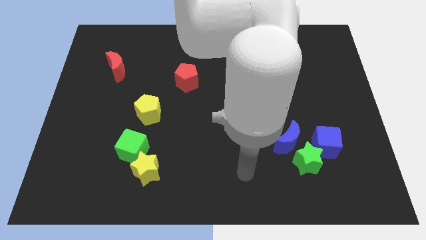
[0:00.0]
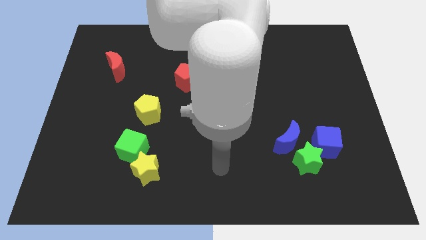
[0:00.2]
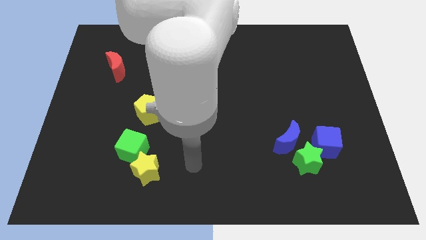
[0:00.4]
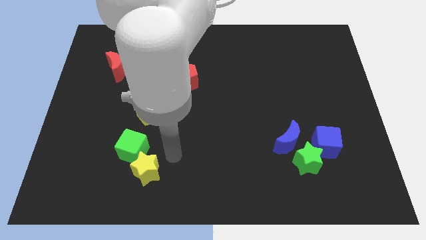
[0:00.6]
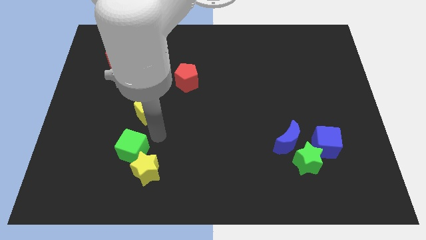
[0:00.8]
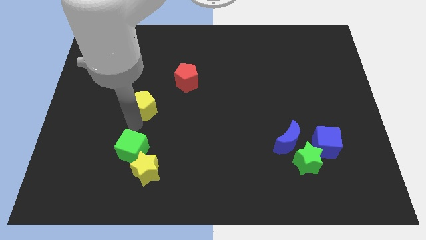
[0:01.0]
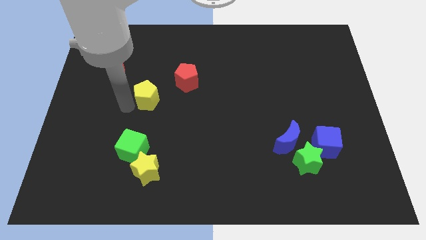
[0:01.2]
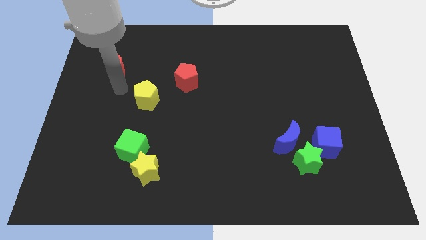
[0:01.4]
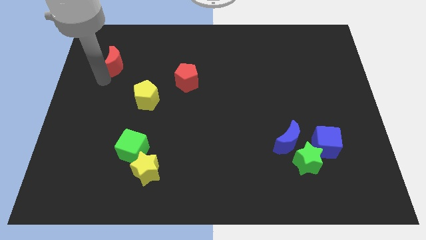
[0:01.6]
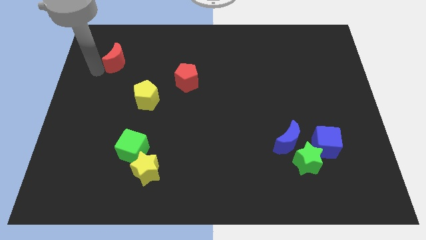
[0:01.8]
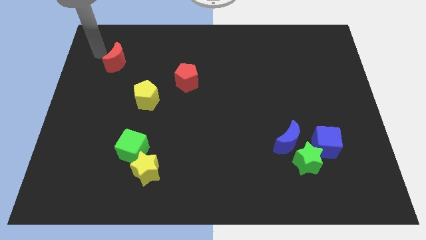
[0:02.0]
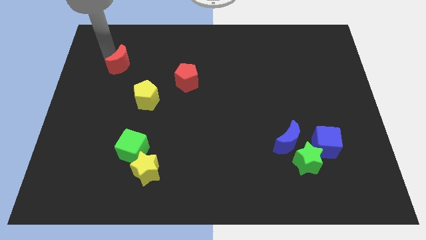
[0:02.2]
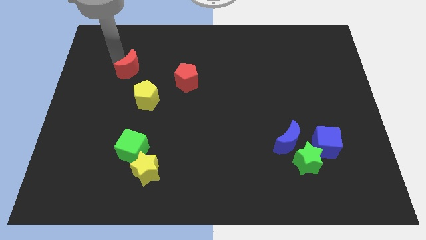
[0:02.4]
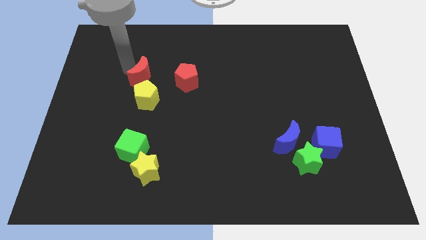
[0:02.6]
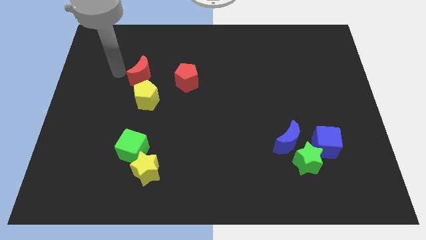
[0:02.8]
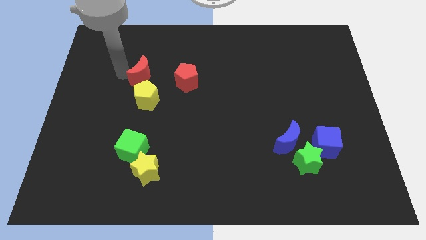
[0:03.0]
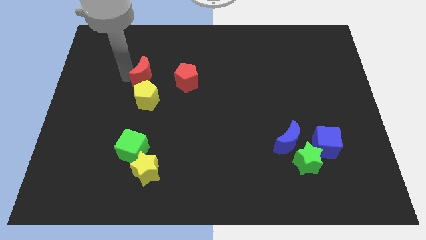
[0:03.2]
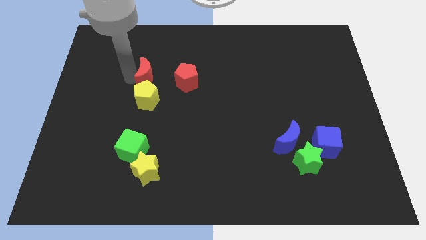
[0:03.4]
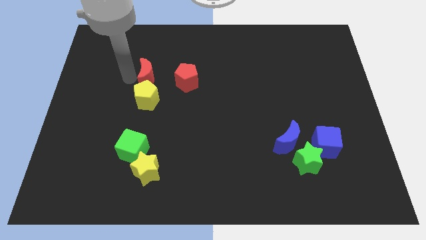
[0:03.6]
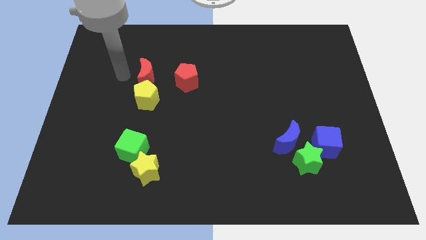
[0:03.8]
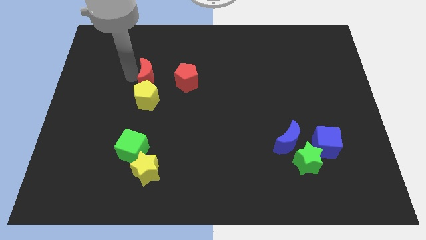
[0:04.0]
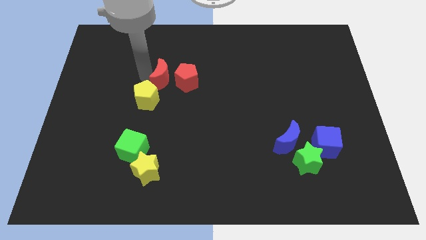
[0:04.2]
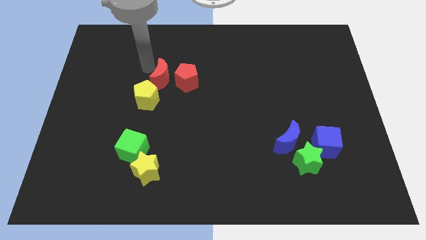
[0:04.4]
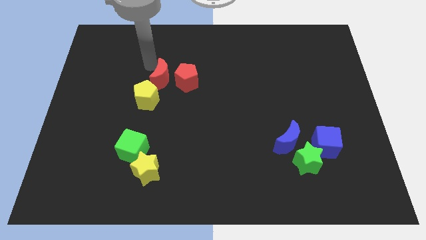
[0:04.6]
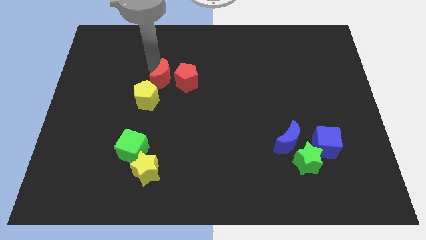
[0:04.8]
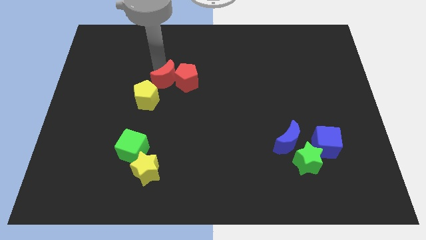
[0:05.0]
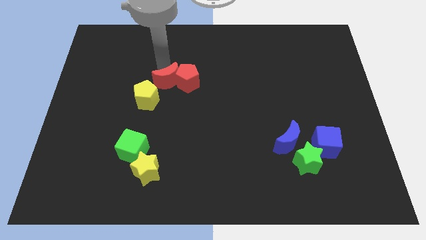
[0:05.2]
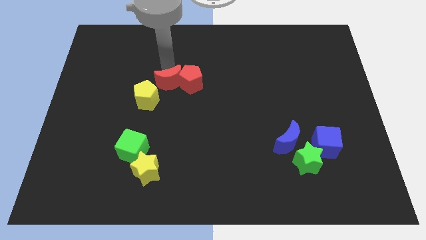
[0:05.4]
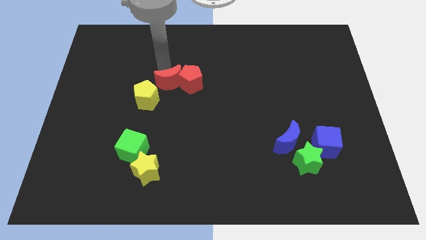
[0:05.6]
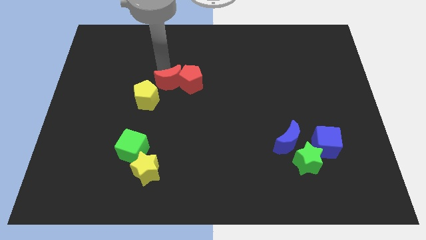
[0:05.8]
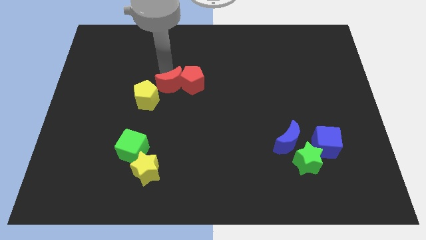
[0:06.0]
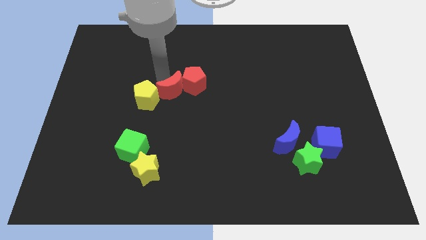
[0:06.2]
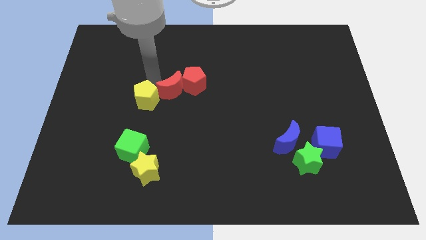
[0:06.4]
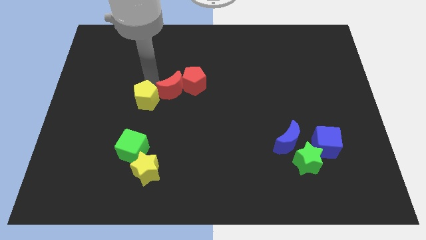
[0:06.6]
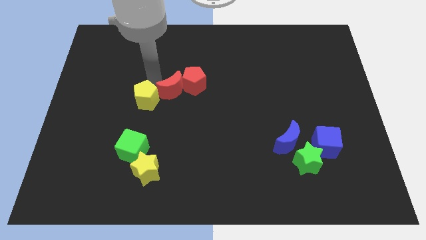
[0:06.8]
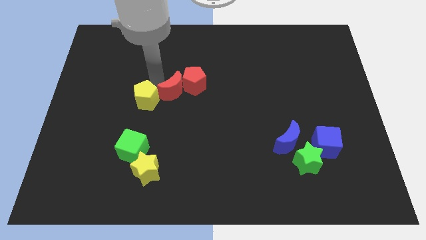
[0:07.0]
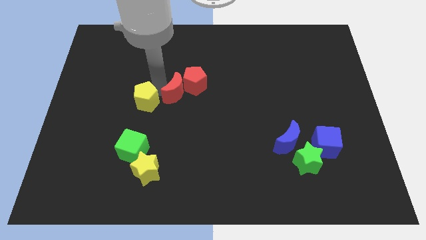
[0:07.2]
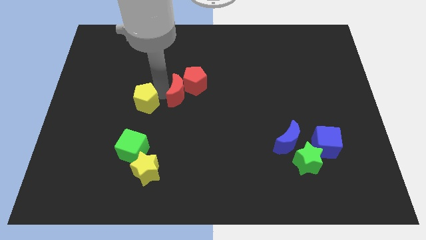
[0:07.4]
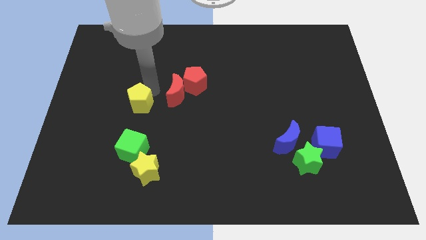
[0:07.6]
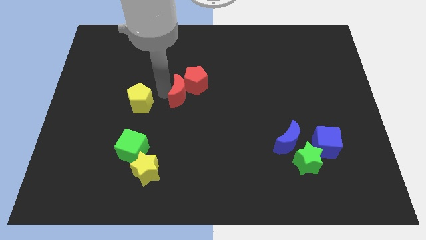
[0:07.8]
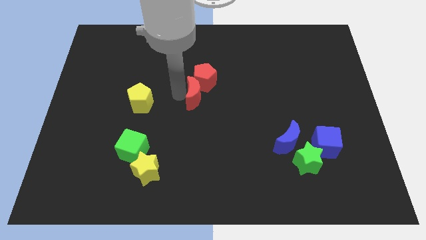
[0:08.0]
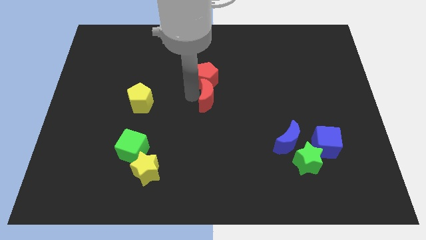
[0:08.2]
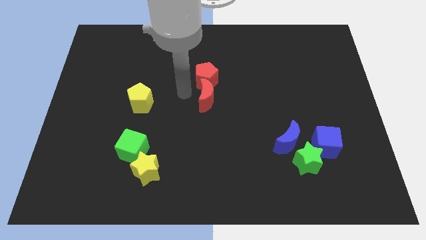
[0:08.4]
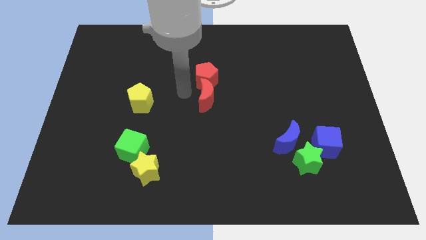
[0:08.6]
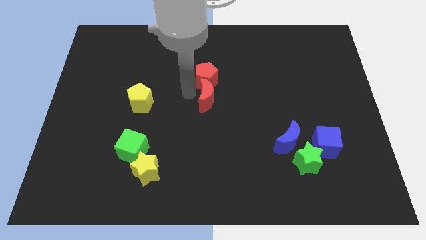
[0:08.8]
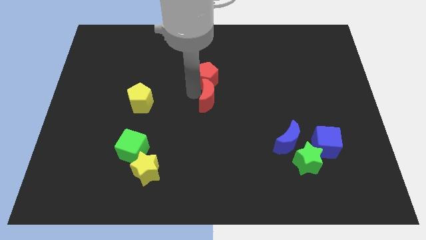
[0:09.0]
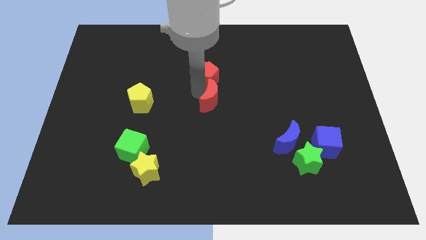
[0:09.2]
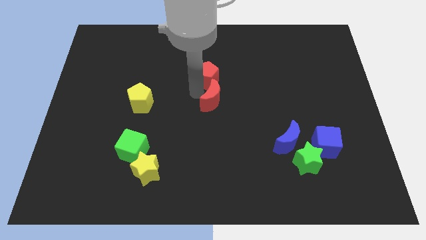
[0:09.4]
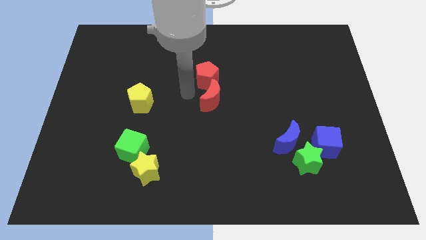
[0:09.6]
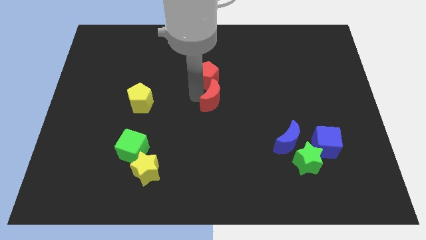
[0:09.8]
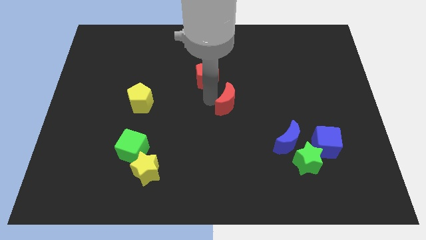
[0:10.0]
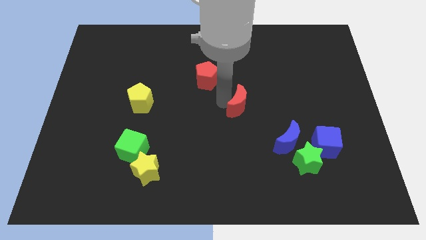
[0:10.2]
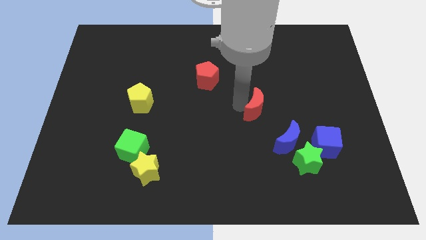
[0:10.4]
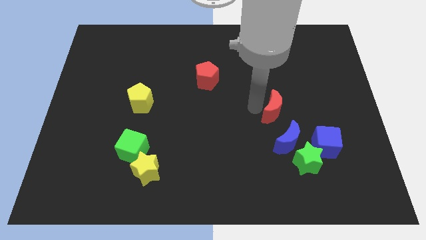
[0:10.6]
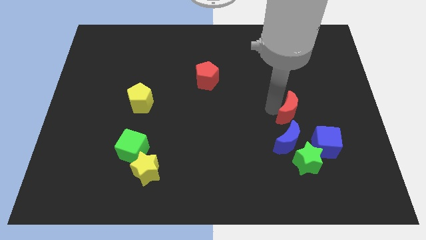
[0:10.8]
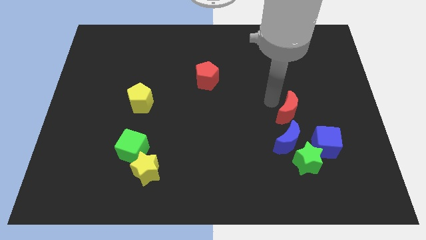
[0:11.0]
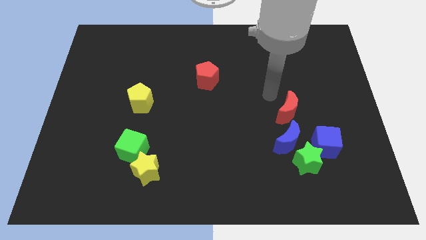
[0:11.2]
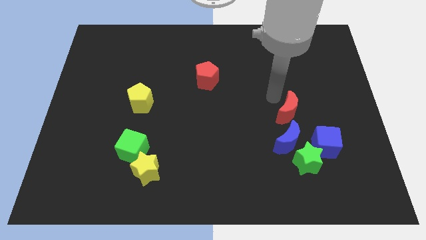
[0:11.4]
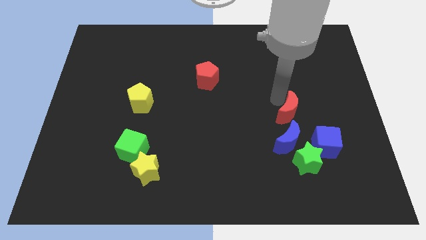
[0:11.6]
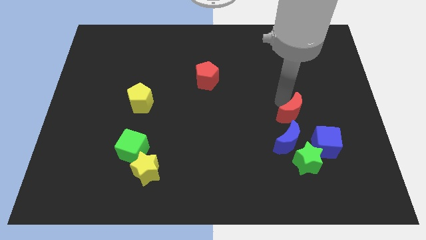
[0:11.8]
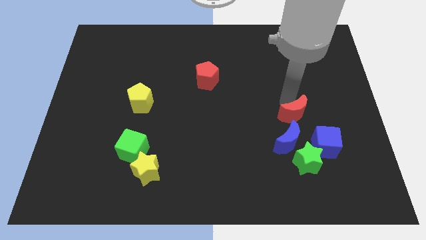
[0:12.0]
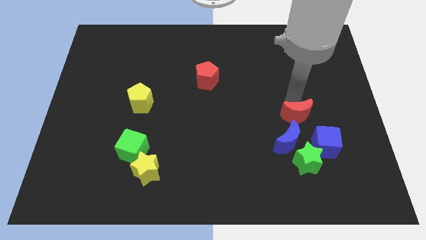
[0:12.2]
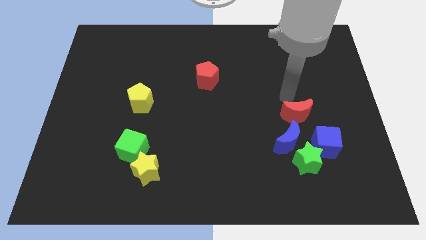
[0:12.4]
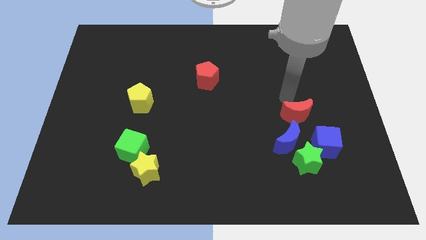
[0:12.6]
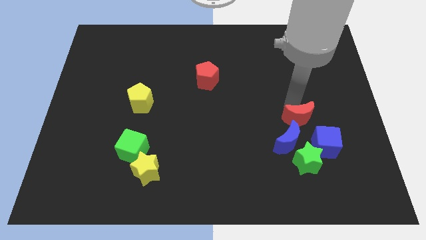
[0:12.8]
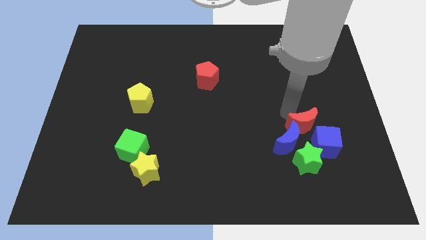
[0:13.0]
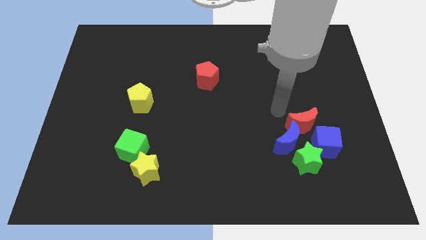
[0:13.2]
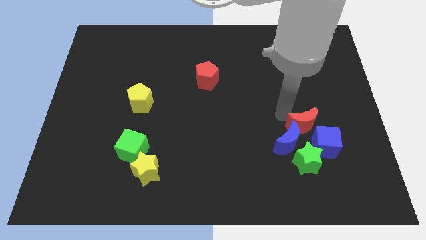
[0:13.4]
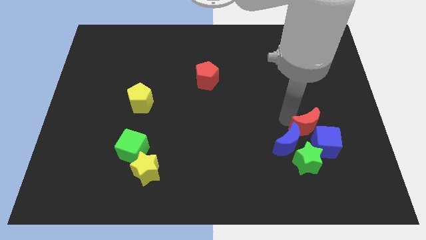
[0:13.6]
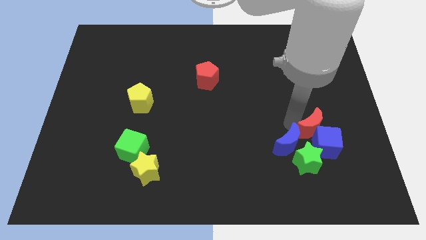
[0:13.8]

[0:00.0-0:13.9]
put the red moon to the top right of the green star

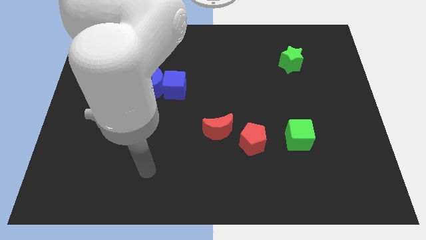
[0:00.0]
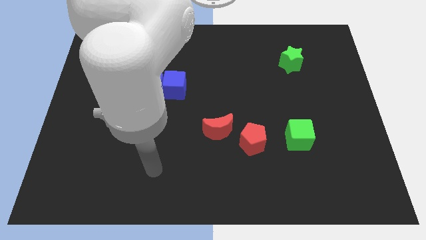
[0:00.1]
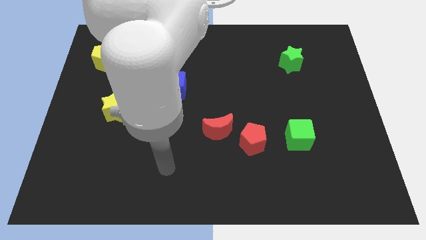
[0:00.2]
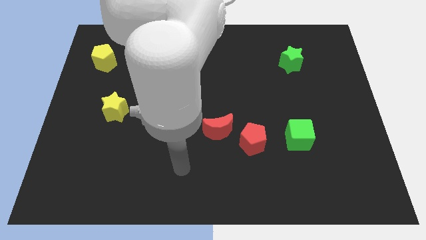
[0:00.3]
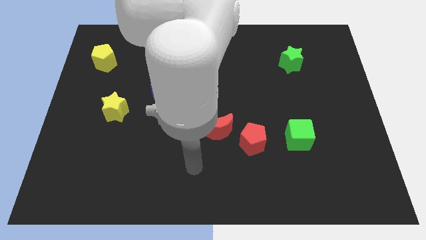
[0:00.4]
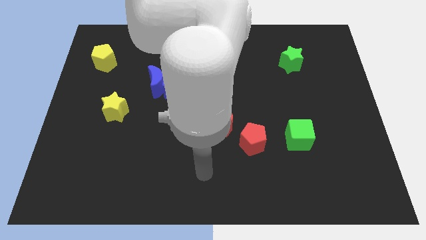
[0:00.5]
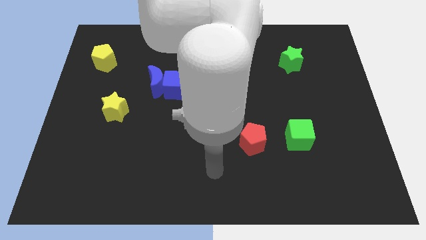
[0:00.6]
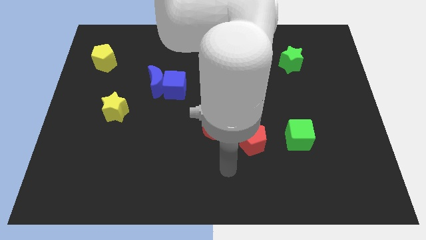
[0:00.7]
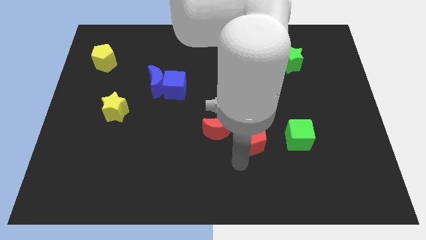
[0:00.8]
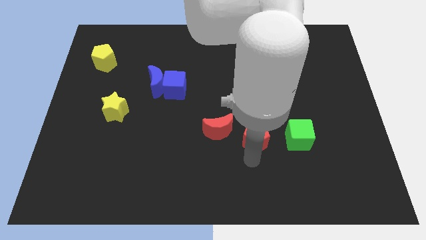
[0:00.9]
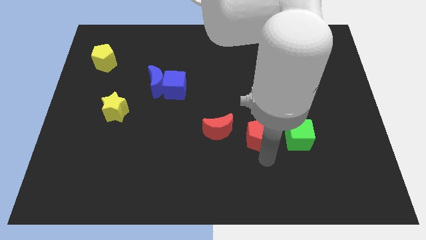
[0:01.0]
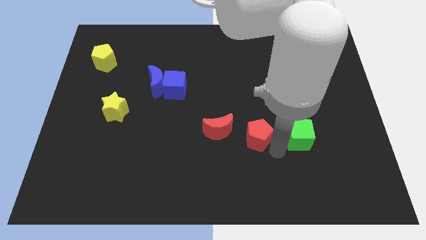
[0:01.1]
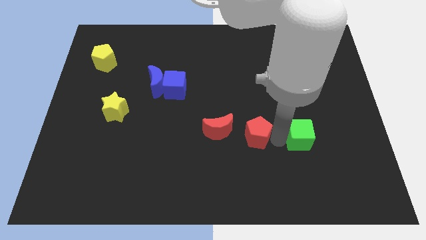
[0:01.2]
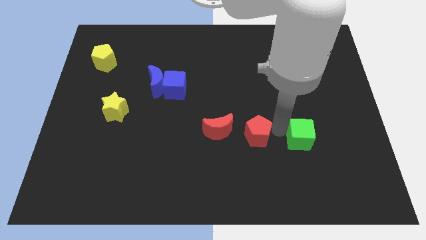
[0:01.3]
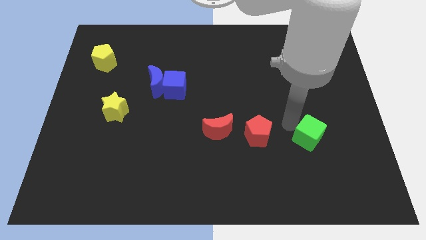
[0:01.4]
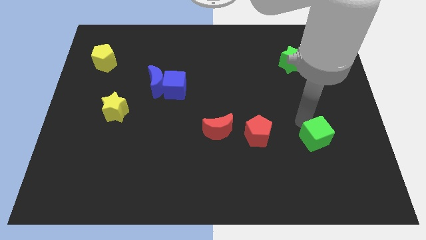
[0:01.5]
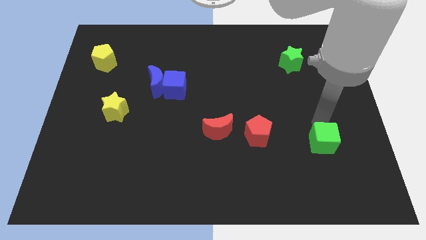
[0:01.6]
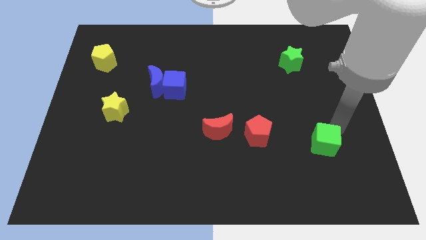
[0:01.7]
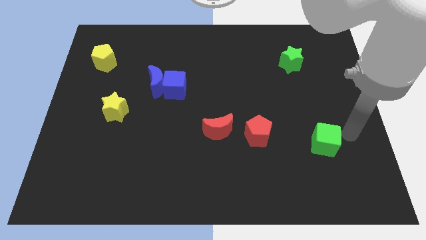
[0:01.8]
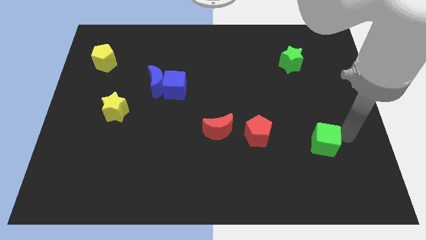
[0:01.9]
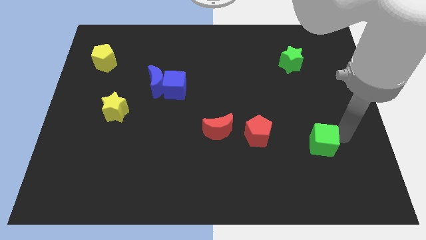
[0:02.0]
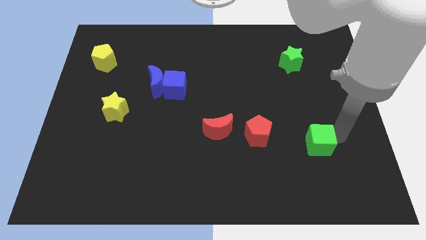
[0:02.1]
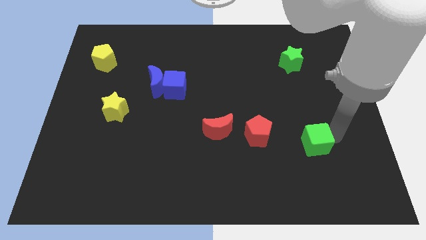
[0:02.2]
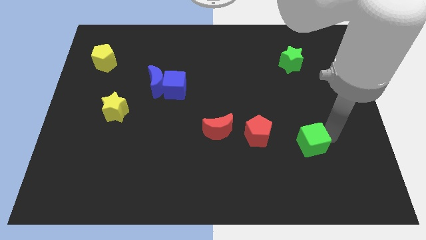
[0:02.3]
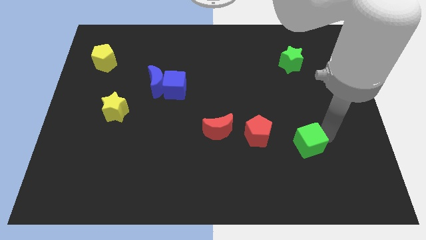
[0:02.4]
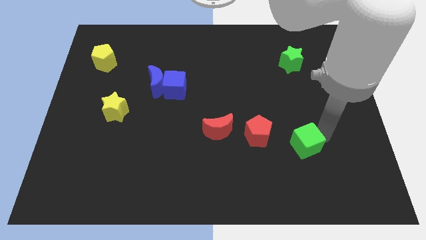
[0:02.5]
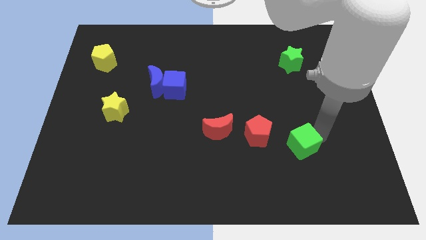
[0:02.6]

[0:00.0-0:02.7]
slide the green cube to the bottom right side of the red pentagon
